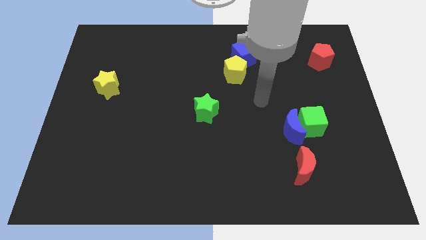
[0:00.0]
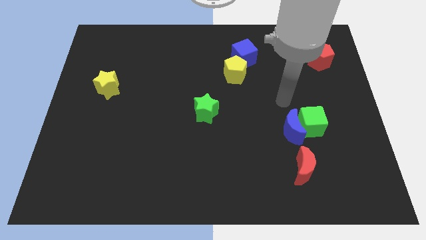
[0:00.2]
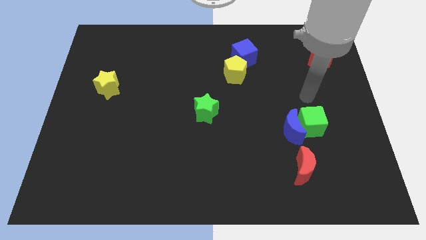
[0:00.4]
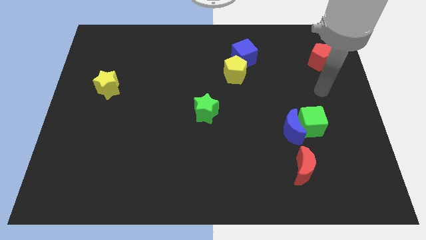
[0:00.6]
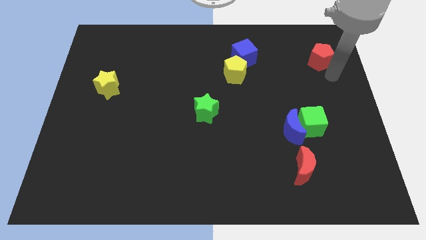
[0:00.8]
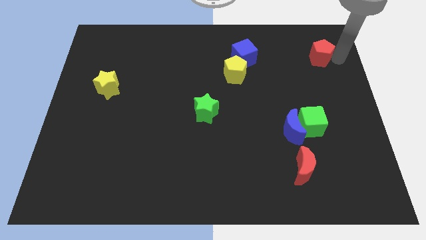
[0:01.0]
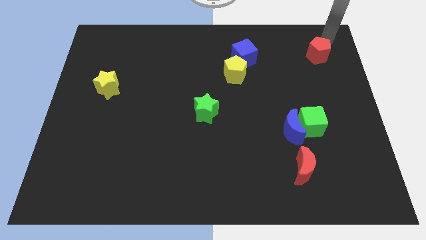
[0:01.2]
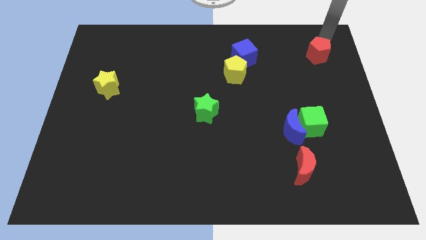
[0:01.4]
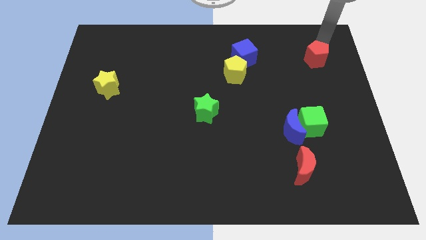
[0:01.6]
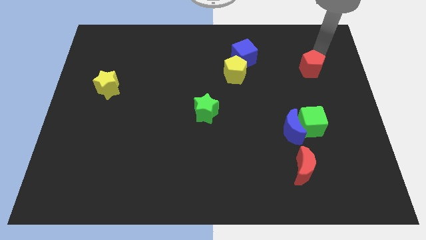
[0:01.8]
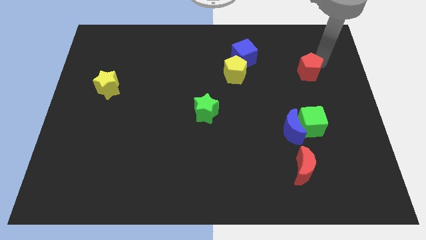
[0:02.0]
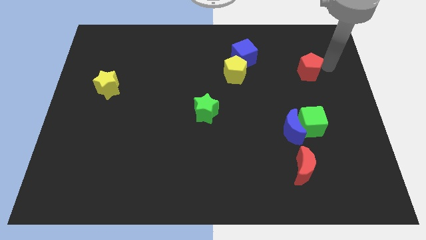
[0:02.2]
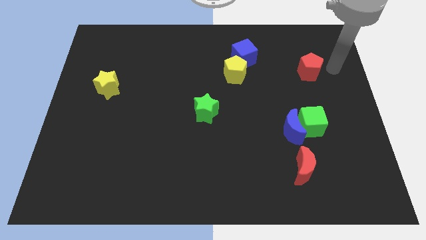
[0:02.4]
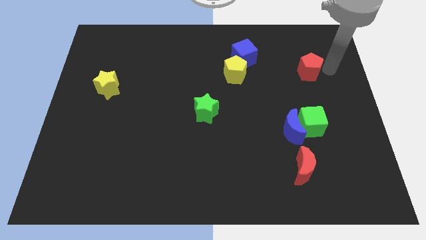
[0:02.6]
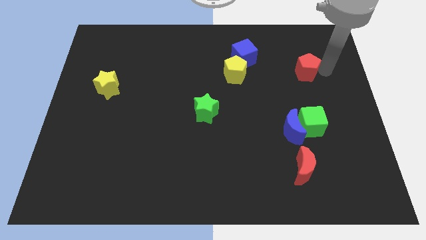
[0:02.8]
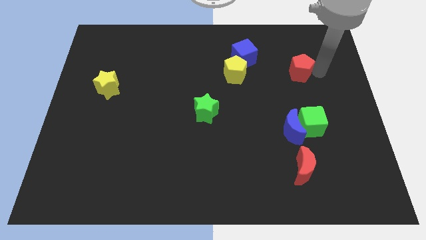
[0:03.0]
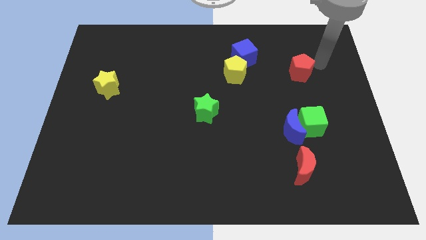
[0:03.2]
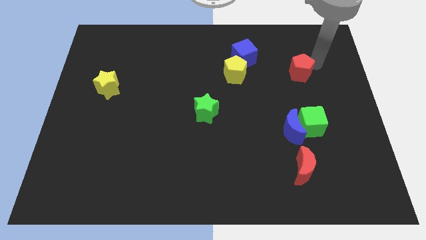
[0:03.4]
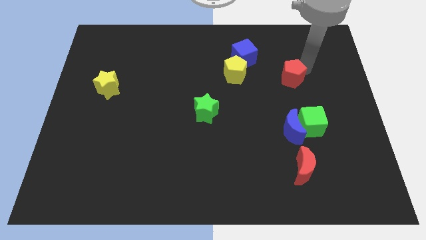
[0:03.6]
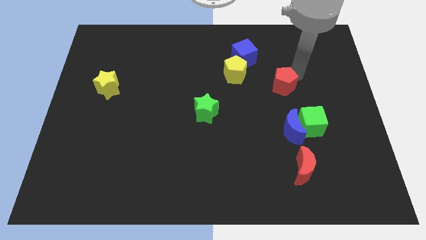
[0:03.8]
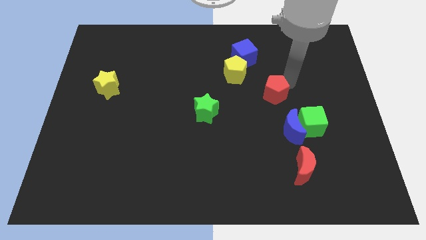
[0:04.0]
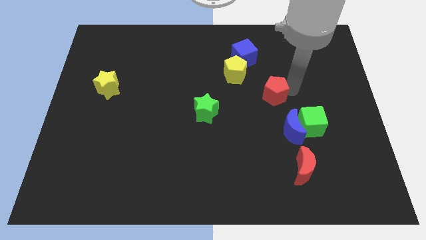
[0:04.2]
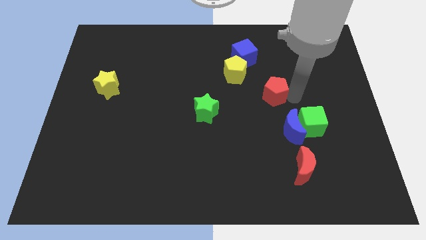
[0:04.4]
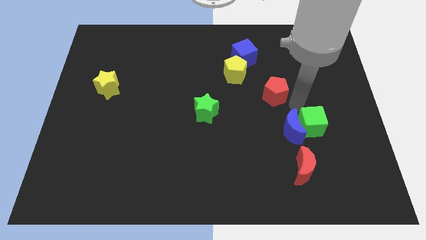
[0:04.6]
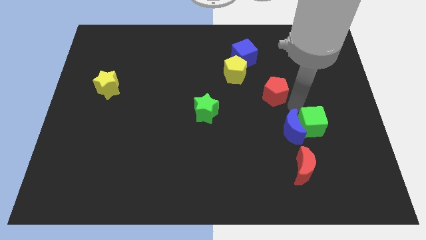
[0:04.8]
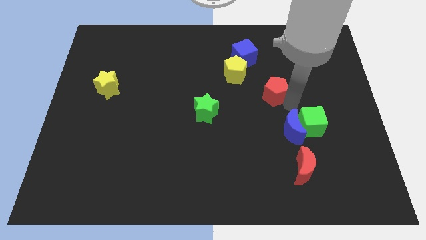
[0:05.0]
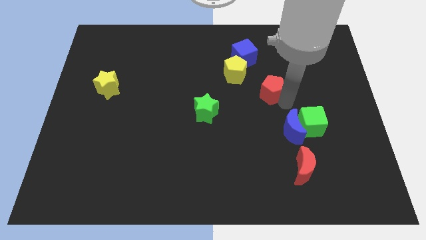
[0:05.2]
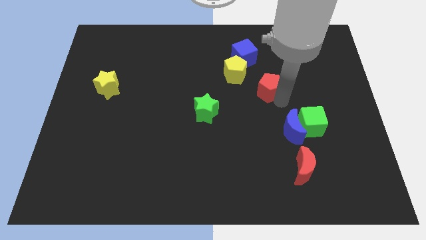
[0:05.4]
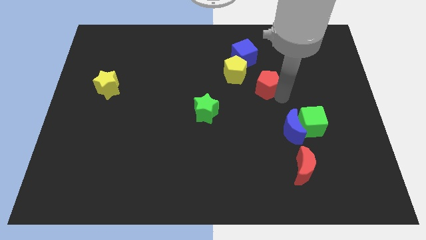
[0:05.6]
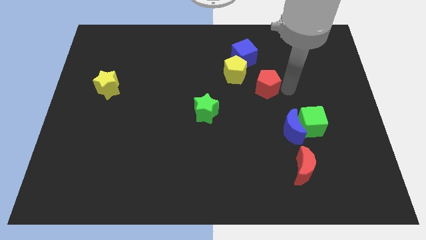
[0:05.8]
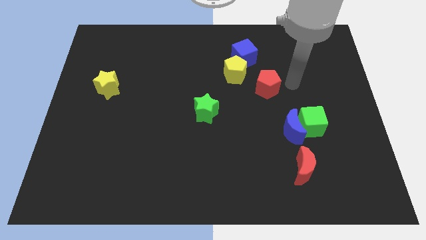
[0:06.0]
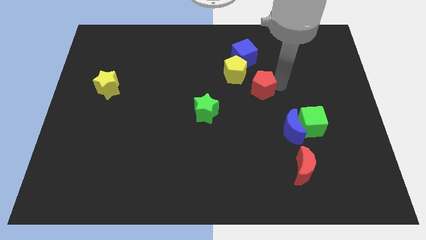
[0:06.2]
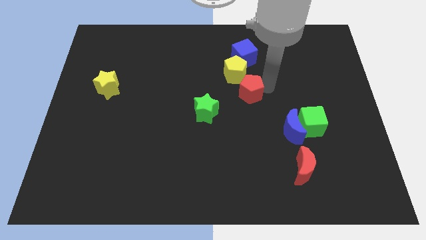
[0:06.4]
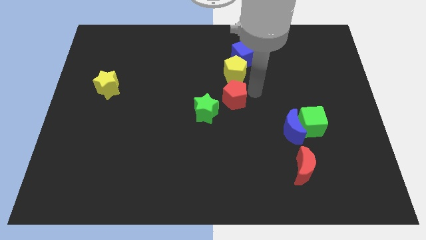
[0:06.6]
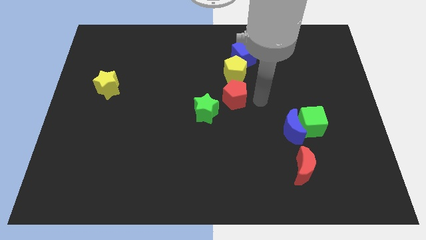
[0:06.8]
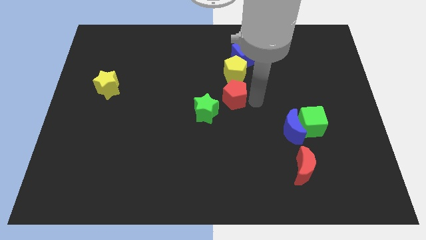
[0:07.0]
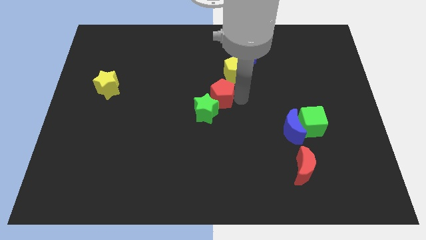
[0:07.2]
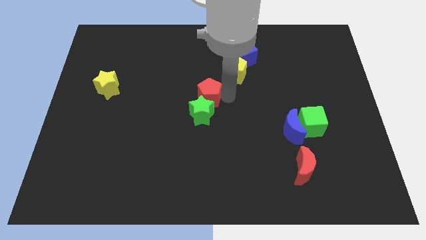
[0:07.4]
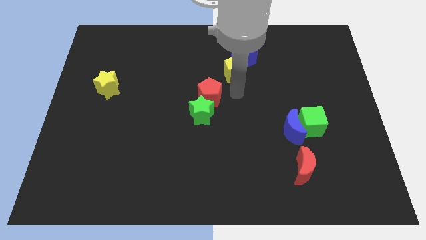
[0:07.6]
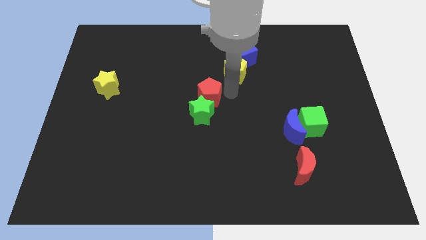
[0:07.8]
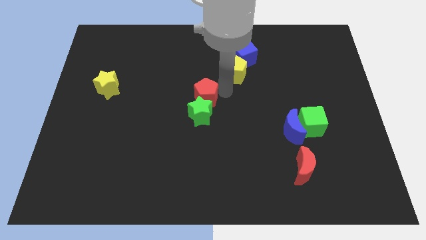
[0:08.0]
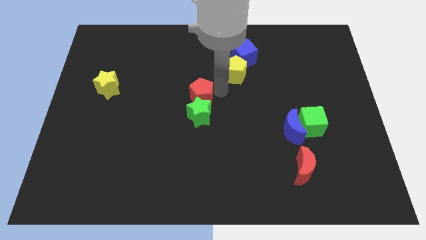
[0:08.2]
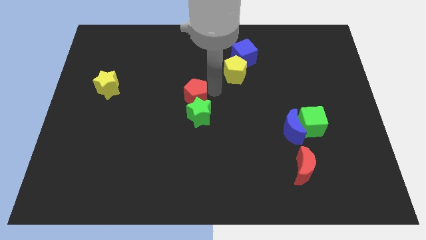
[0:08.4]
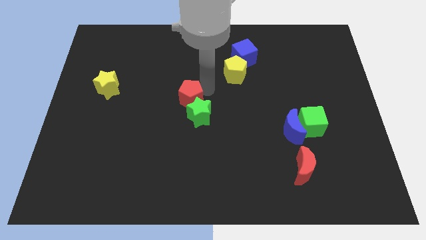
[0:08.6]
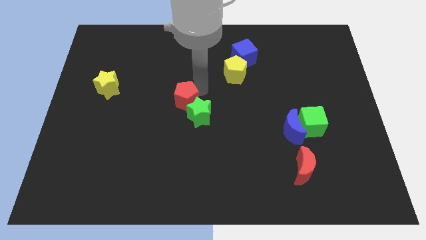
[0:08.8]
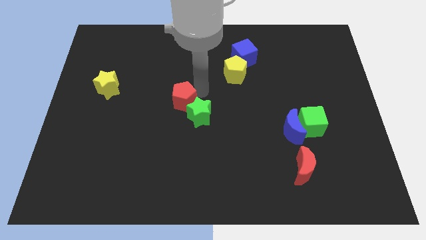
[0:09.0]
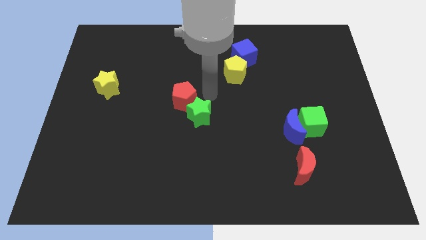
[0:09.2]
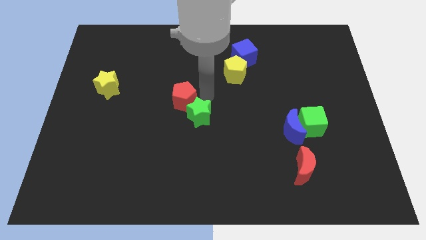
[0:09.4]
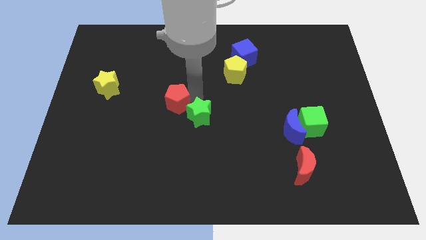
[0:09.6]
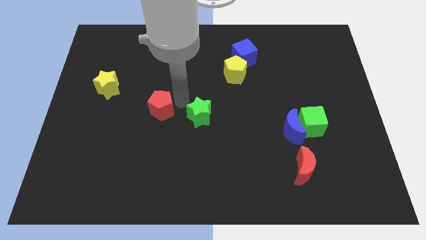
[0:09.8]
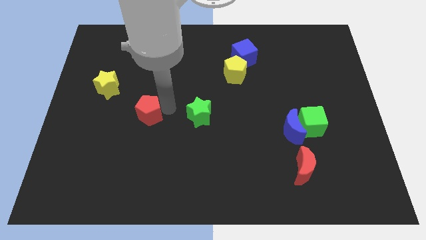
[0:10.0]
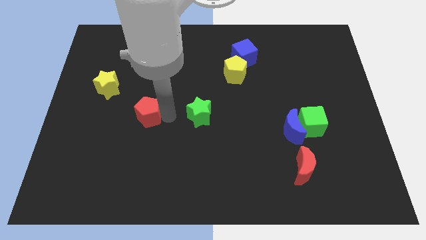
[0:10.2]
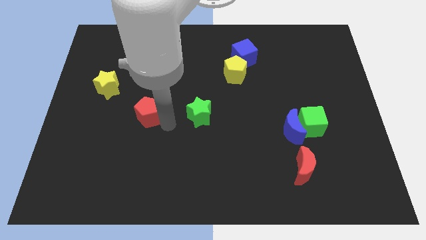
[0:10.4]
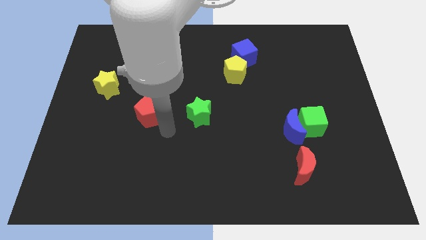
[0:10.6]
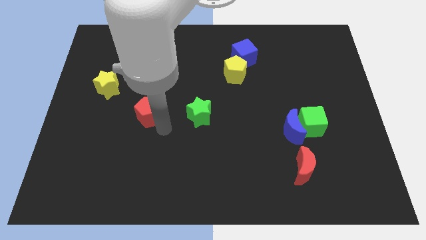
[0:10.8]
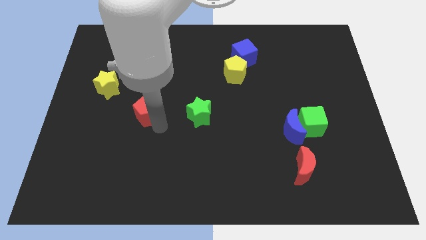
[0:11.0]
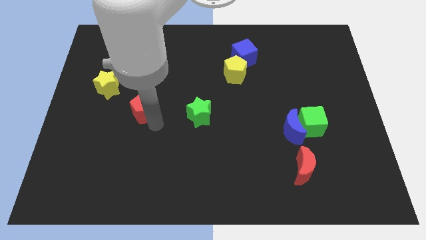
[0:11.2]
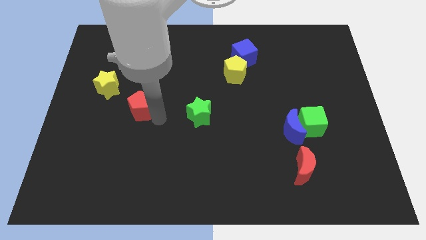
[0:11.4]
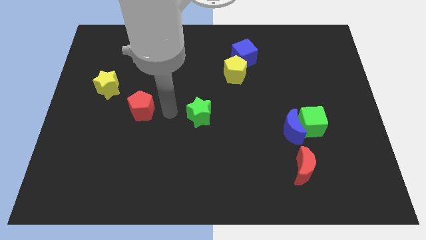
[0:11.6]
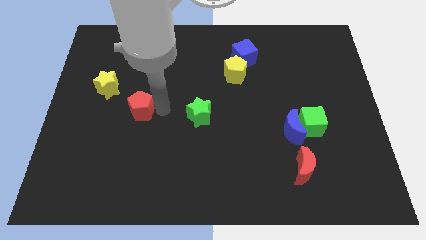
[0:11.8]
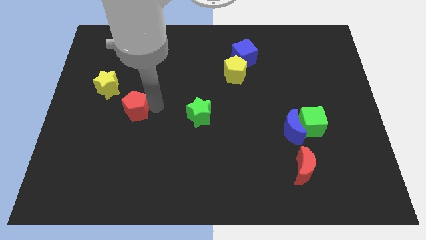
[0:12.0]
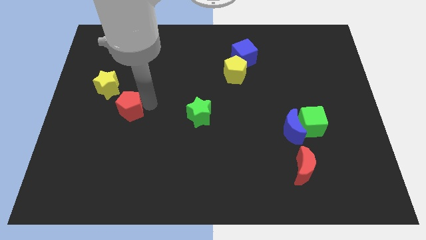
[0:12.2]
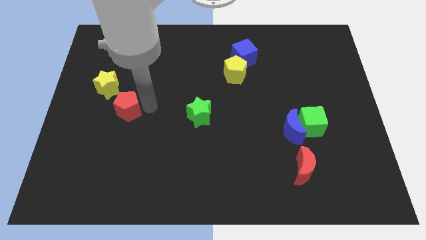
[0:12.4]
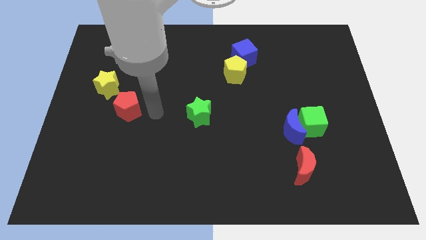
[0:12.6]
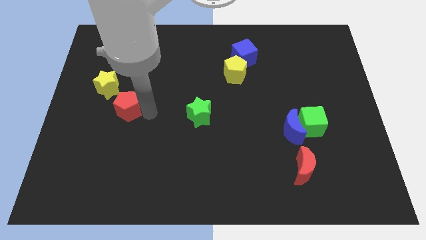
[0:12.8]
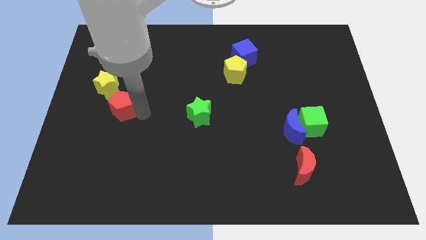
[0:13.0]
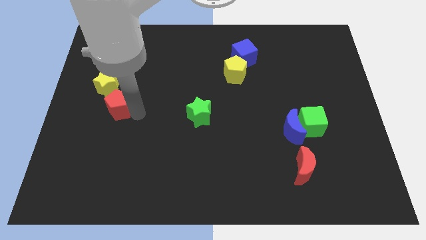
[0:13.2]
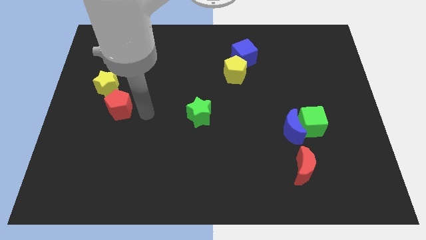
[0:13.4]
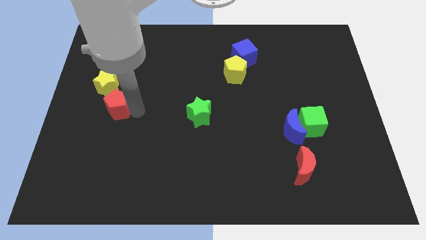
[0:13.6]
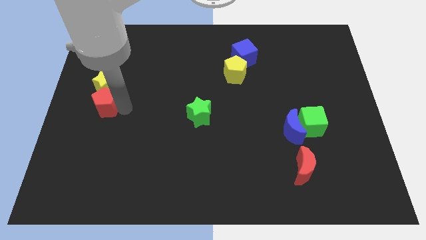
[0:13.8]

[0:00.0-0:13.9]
slide the red pentagon to the left side of the board
